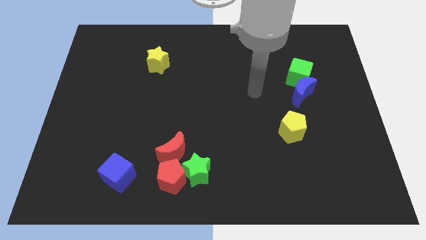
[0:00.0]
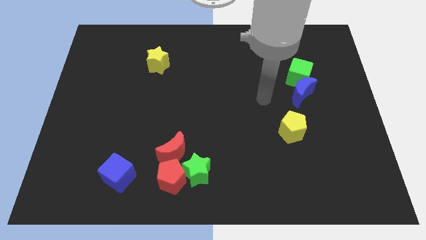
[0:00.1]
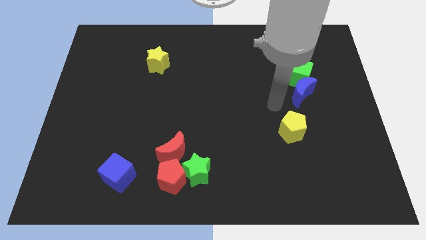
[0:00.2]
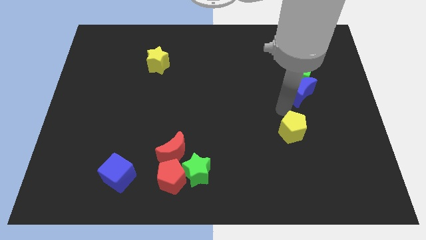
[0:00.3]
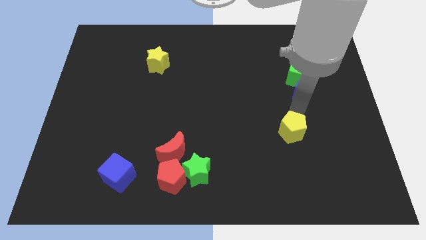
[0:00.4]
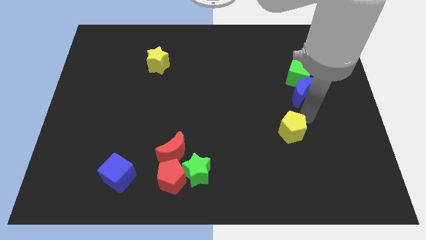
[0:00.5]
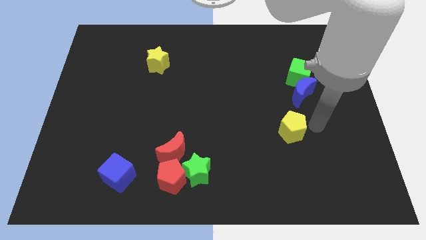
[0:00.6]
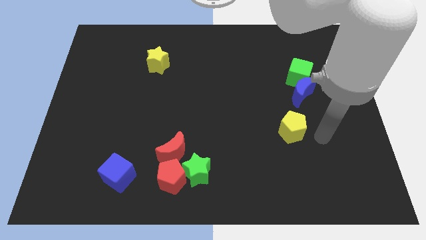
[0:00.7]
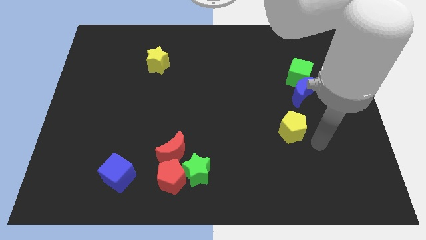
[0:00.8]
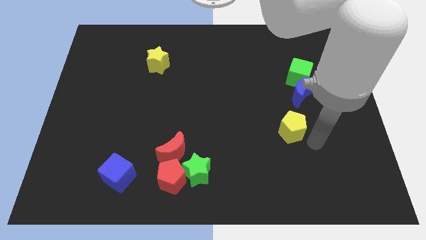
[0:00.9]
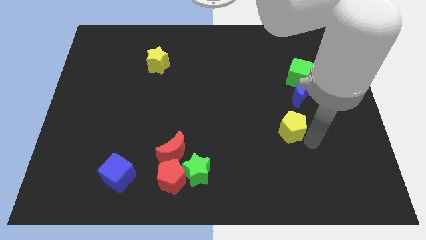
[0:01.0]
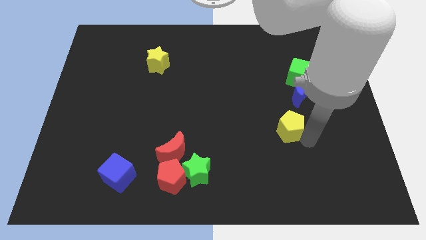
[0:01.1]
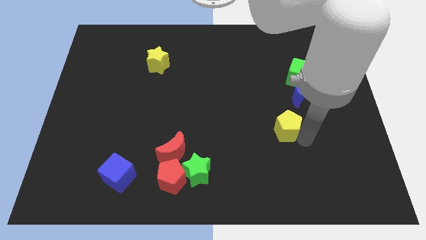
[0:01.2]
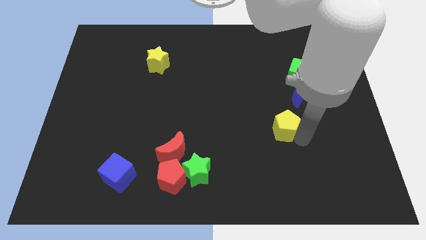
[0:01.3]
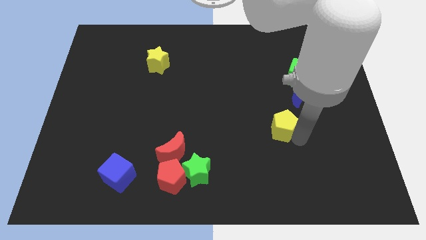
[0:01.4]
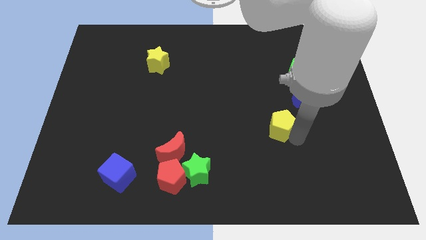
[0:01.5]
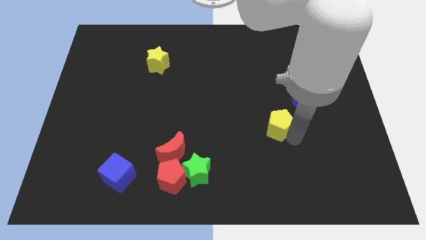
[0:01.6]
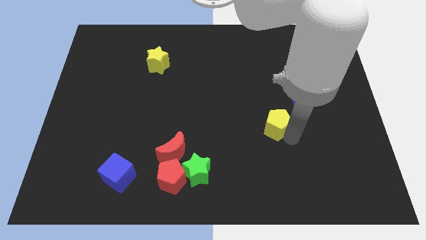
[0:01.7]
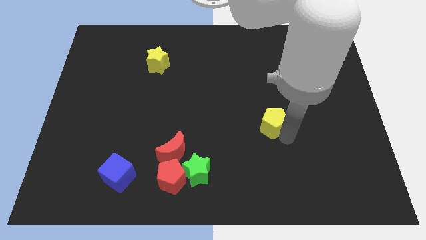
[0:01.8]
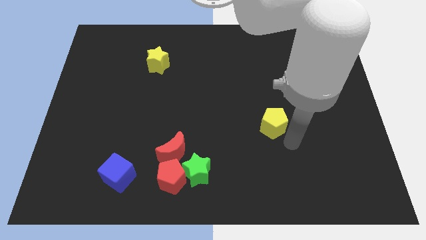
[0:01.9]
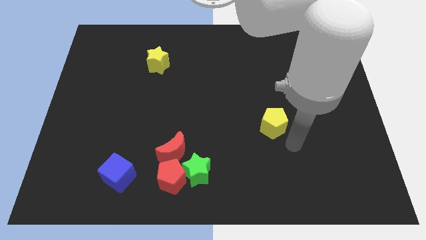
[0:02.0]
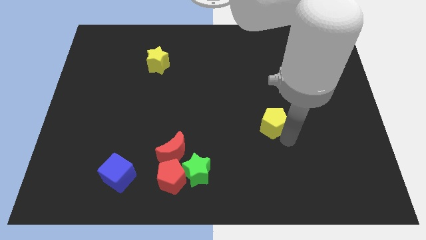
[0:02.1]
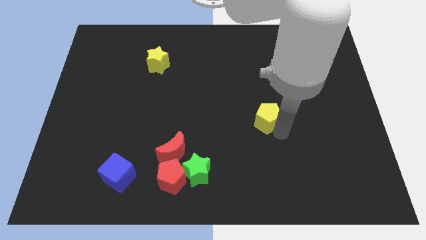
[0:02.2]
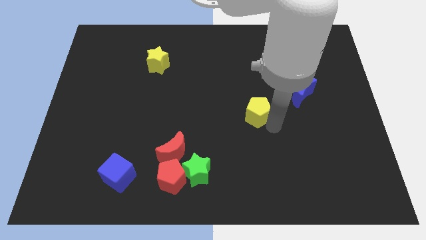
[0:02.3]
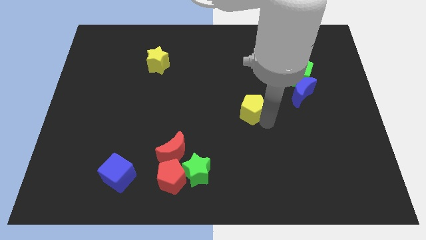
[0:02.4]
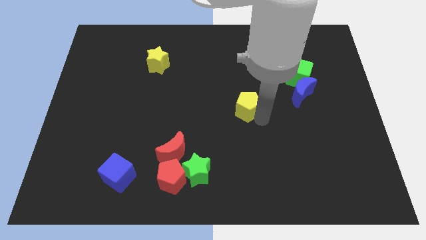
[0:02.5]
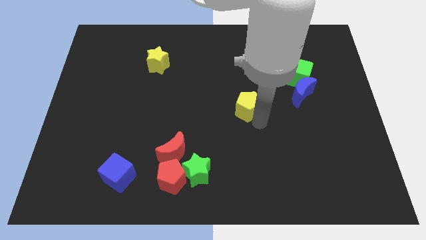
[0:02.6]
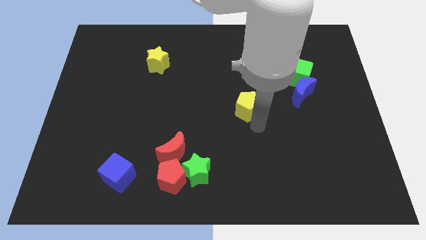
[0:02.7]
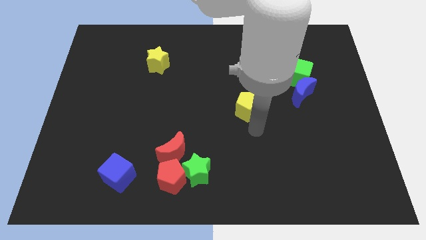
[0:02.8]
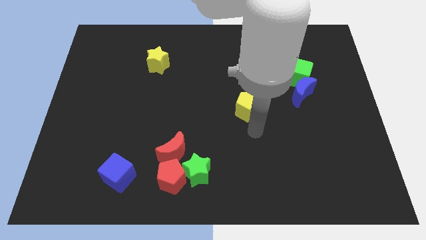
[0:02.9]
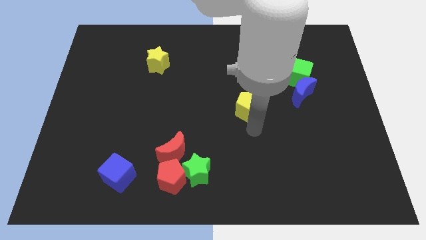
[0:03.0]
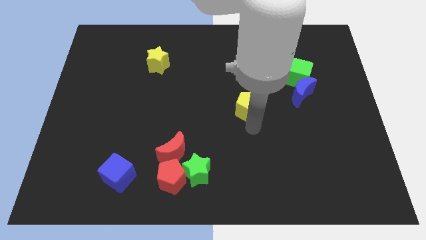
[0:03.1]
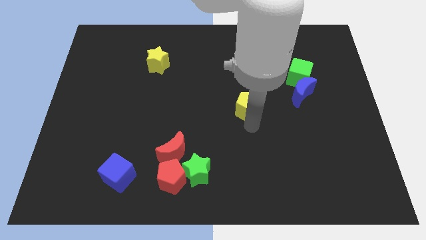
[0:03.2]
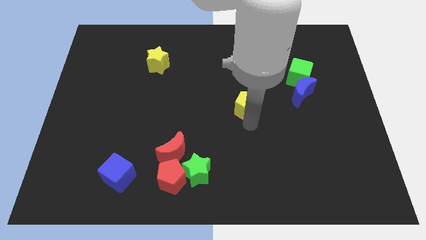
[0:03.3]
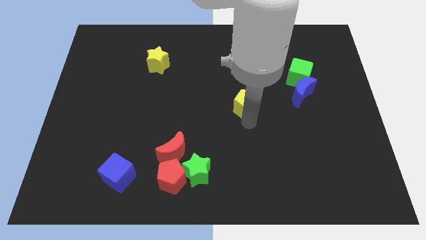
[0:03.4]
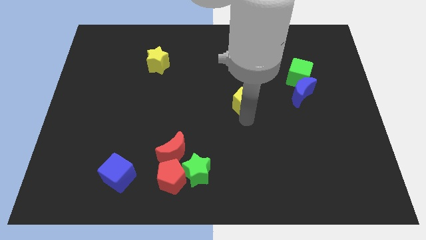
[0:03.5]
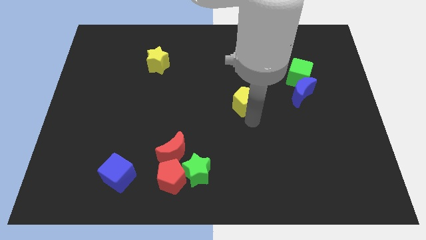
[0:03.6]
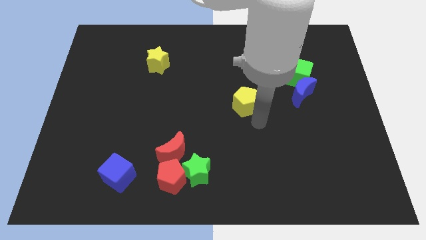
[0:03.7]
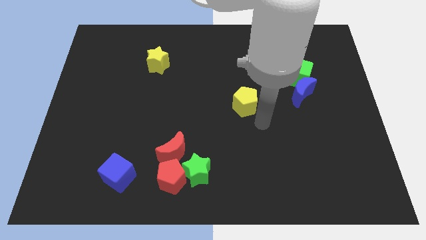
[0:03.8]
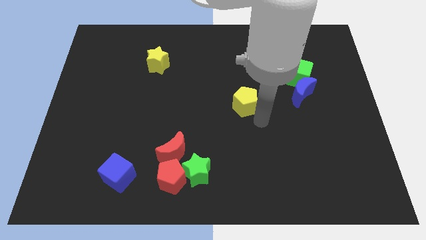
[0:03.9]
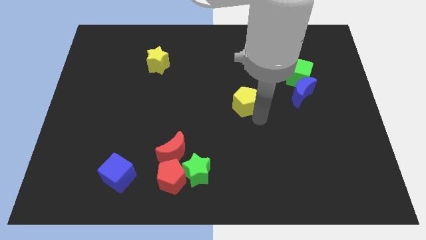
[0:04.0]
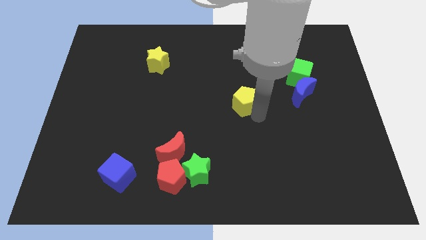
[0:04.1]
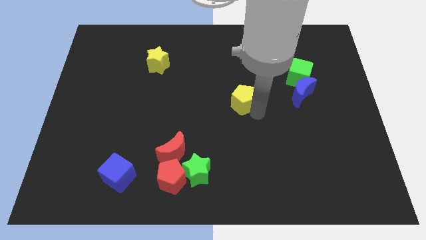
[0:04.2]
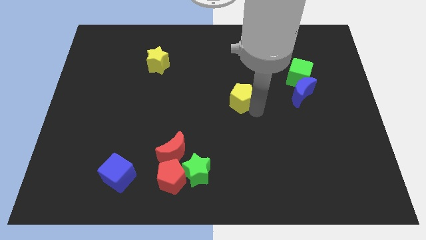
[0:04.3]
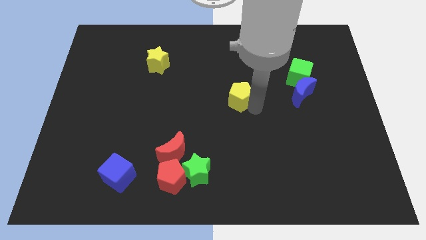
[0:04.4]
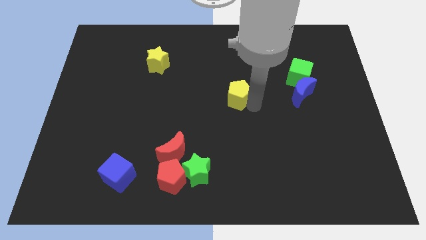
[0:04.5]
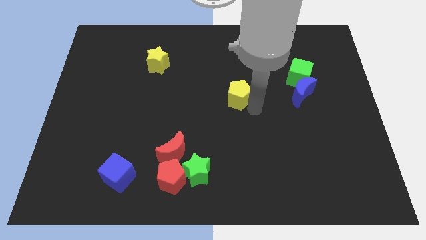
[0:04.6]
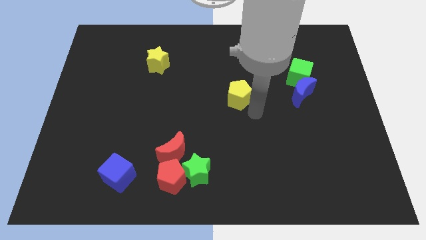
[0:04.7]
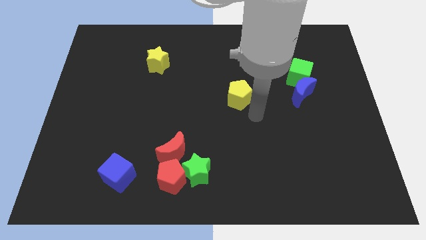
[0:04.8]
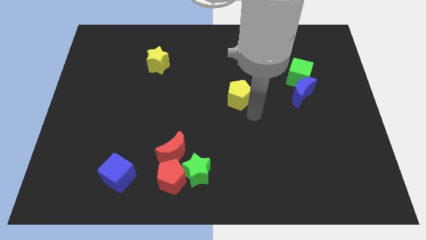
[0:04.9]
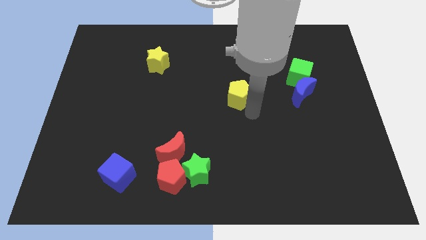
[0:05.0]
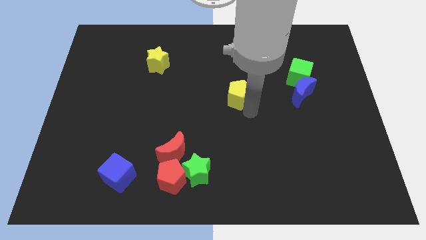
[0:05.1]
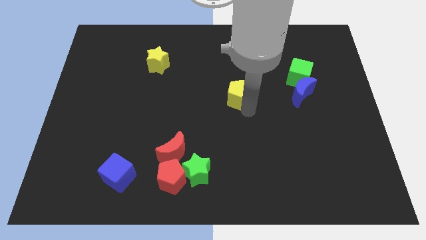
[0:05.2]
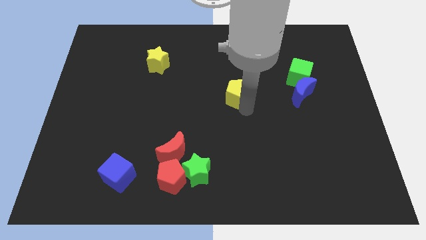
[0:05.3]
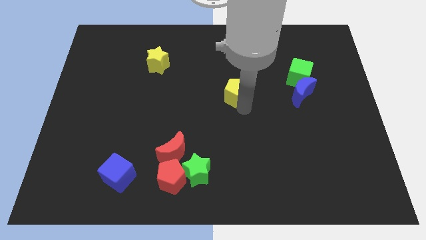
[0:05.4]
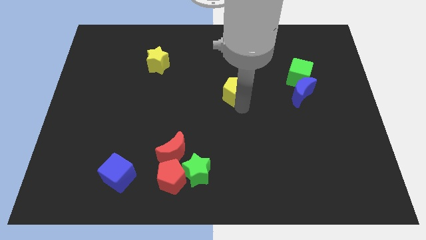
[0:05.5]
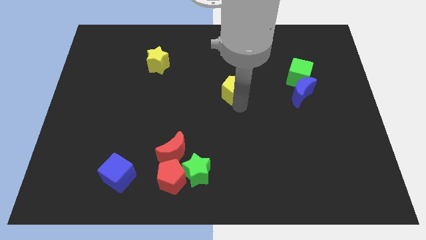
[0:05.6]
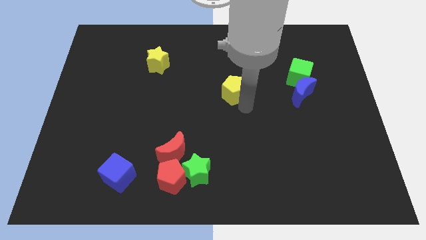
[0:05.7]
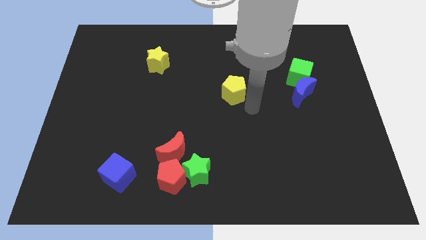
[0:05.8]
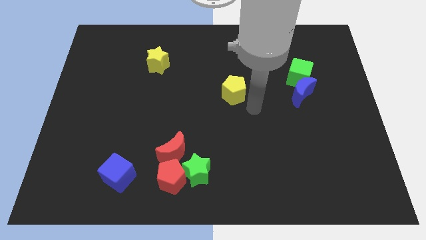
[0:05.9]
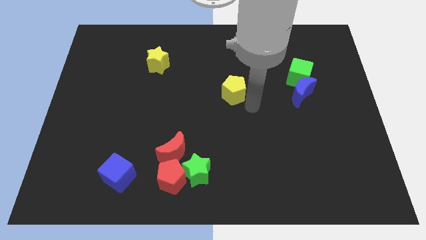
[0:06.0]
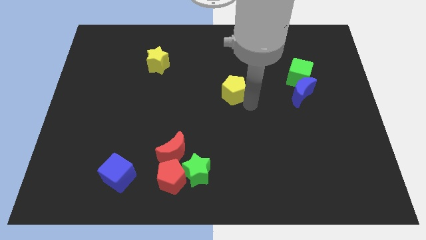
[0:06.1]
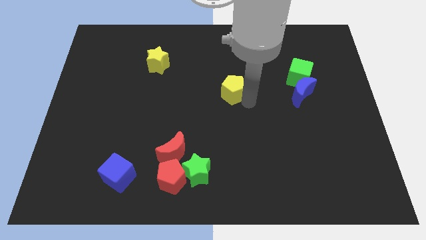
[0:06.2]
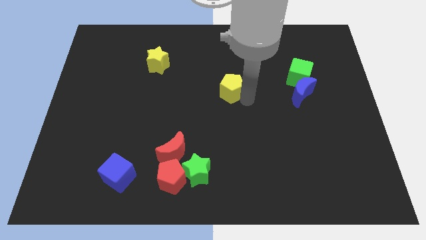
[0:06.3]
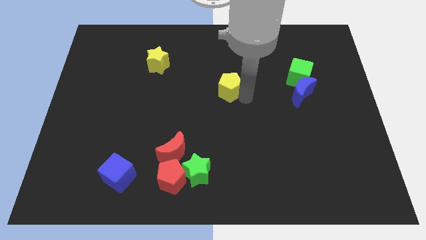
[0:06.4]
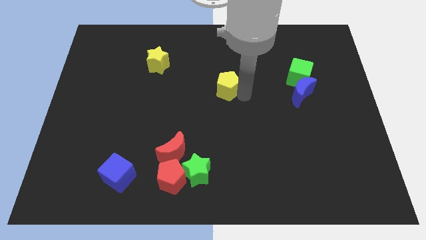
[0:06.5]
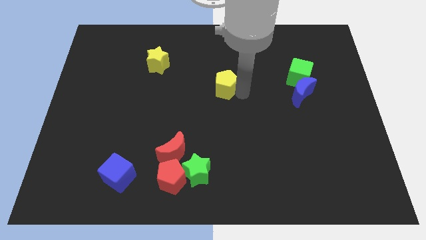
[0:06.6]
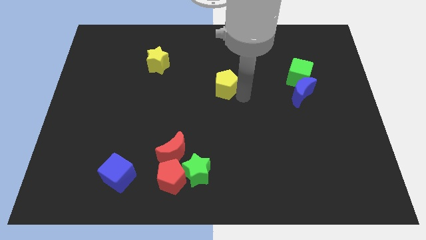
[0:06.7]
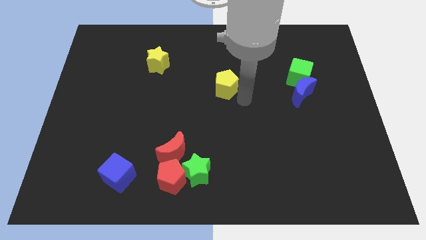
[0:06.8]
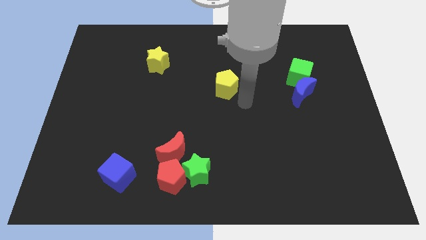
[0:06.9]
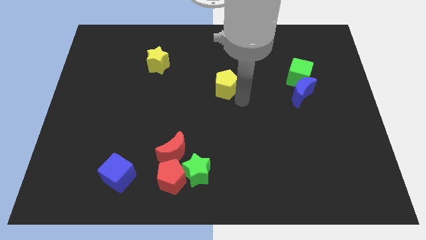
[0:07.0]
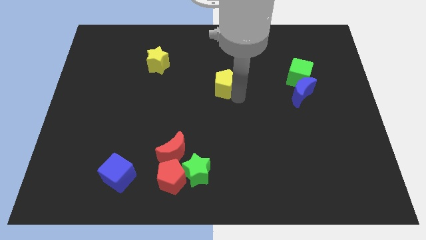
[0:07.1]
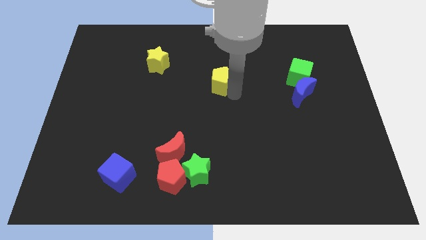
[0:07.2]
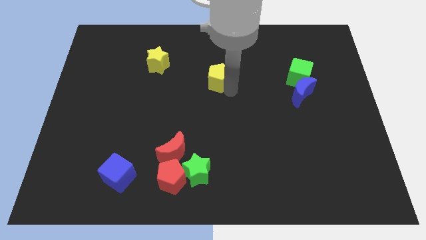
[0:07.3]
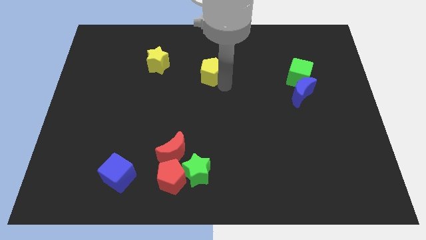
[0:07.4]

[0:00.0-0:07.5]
slide the yellow pentagon right of the yellow star
